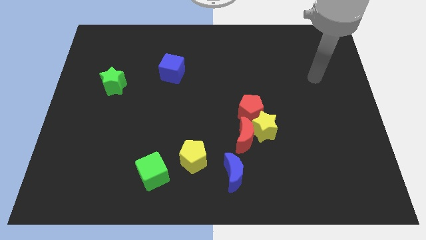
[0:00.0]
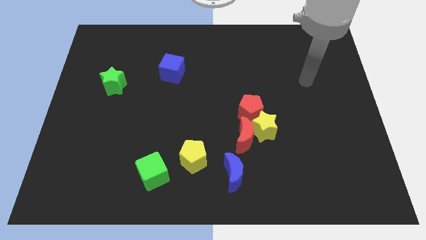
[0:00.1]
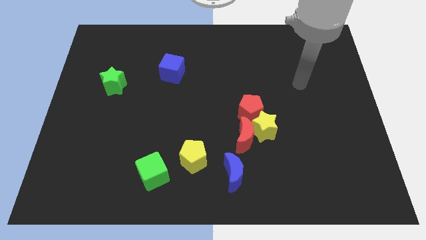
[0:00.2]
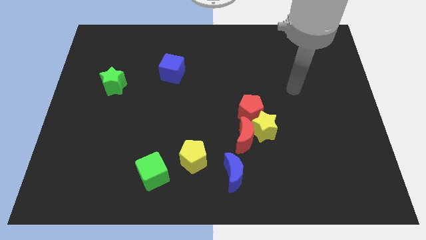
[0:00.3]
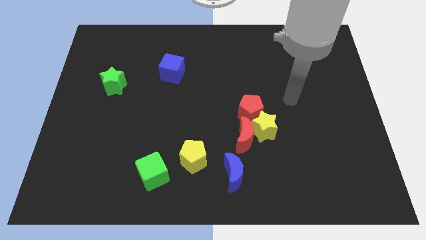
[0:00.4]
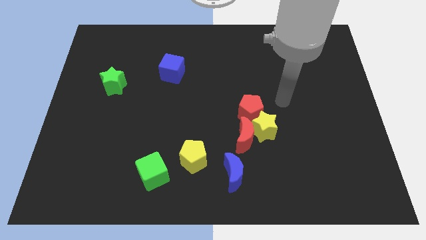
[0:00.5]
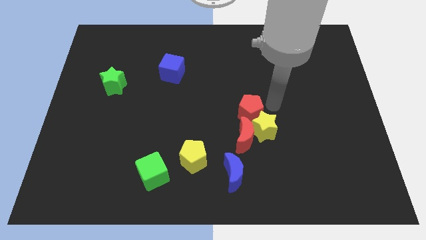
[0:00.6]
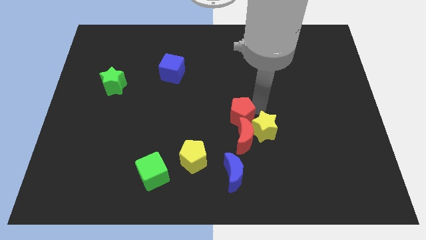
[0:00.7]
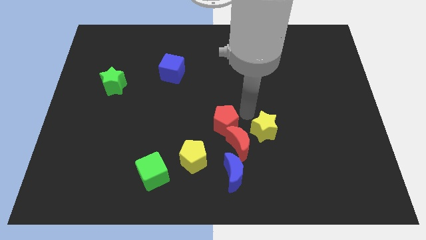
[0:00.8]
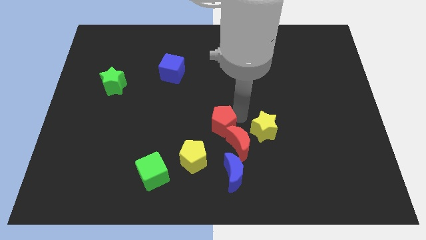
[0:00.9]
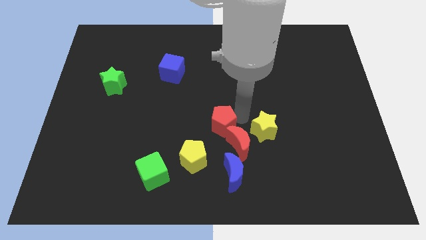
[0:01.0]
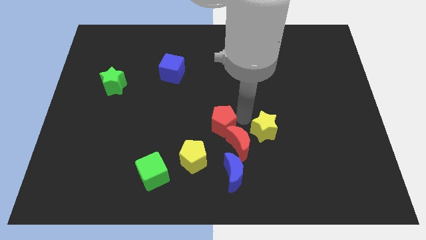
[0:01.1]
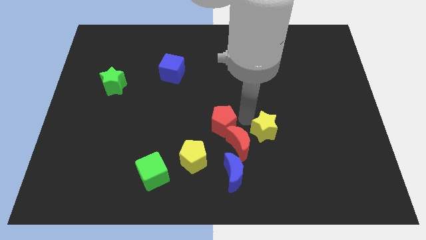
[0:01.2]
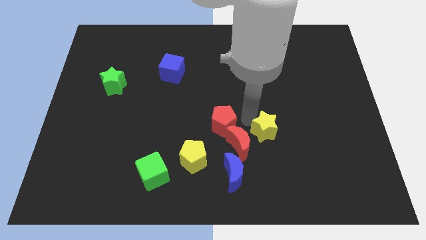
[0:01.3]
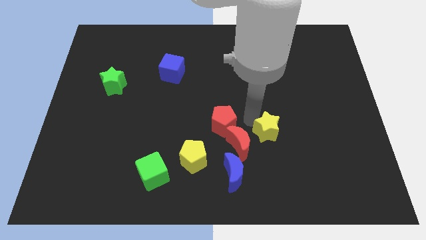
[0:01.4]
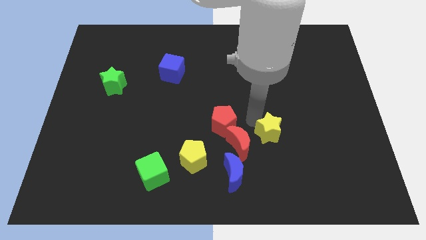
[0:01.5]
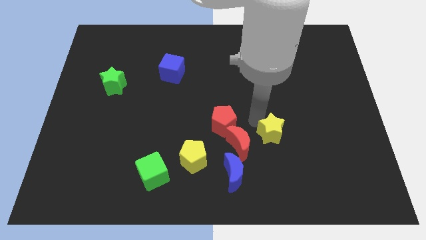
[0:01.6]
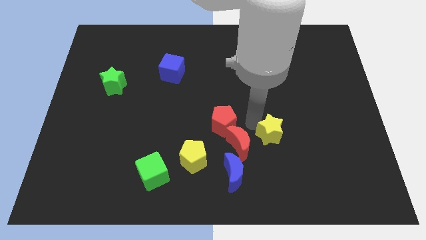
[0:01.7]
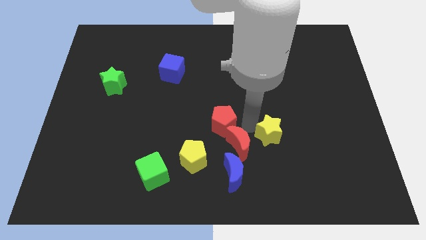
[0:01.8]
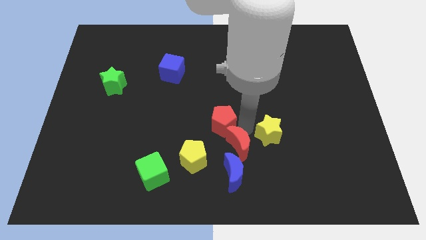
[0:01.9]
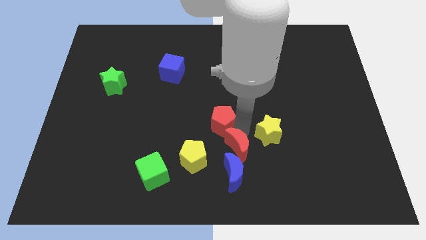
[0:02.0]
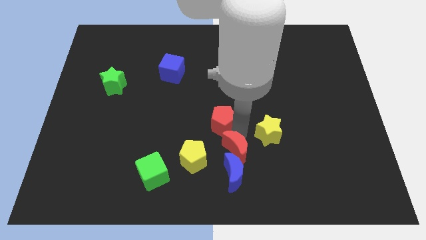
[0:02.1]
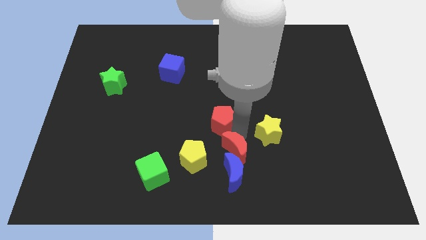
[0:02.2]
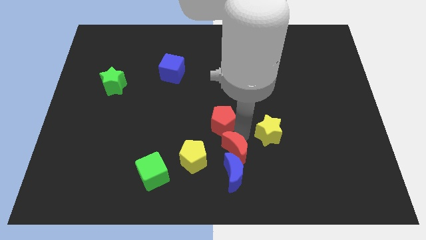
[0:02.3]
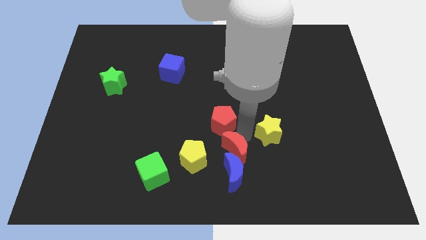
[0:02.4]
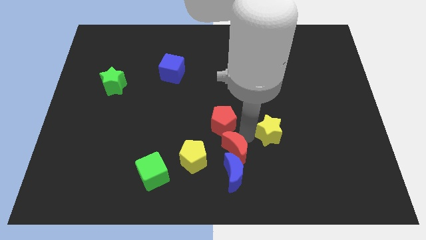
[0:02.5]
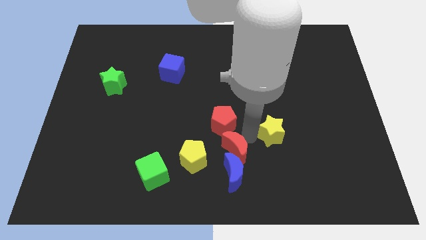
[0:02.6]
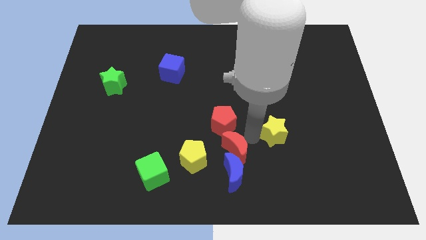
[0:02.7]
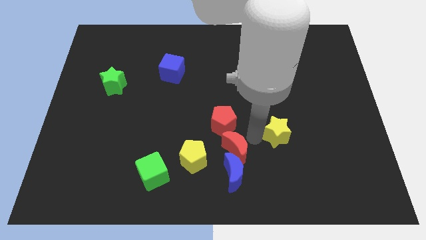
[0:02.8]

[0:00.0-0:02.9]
move the yellow star away from the red moon and red pentagon

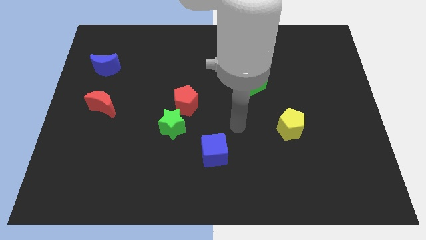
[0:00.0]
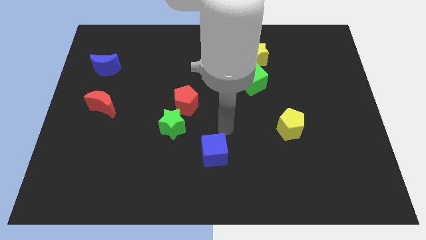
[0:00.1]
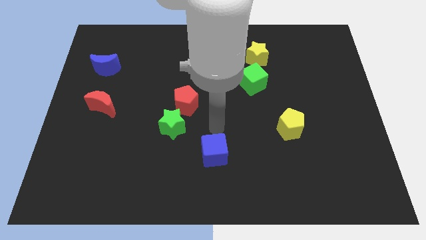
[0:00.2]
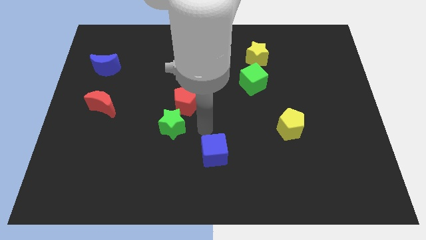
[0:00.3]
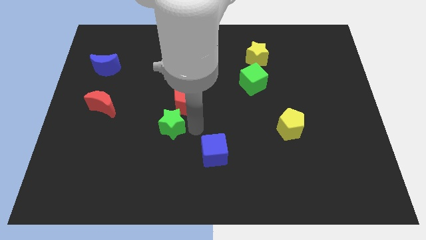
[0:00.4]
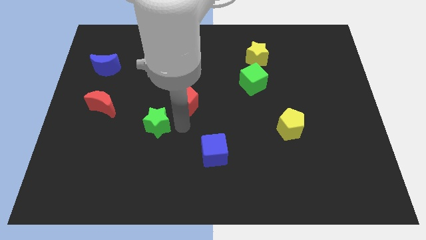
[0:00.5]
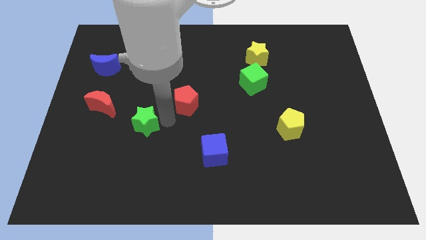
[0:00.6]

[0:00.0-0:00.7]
separate the red pentagon from the green star

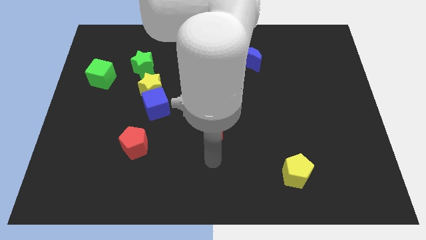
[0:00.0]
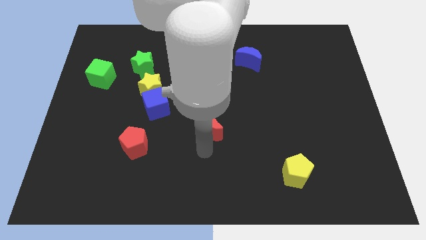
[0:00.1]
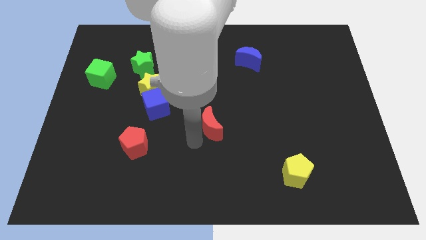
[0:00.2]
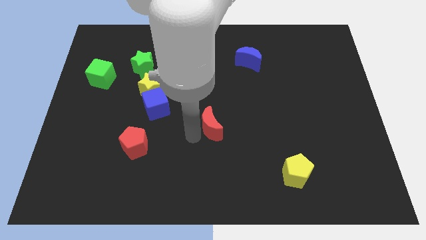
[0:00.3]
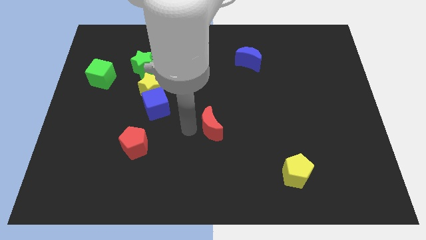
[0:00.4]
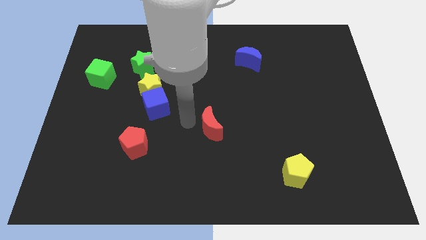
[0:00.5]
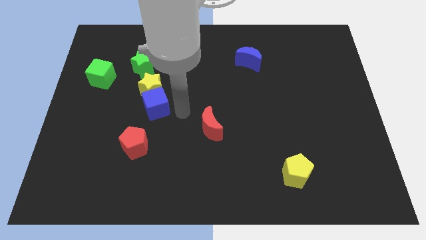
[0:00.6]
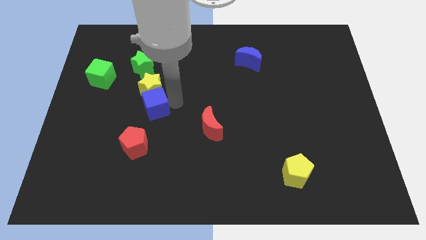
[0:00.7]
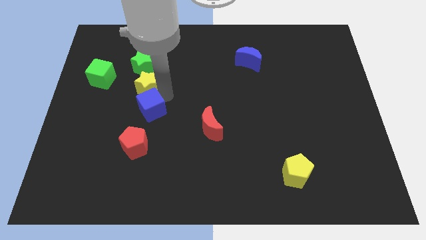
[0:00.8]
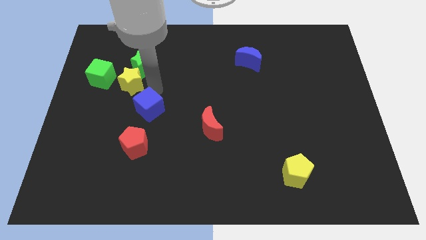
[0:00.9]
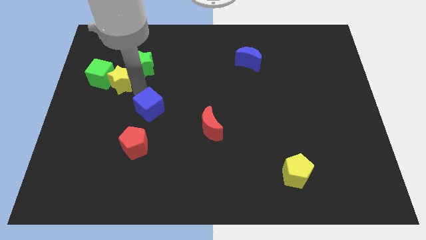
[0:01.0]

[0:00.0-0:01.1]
move the blue cube away from the yellow star

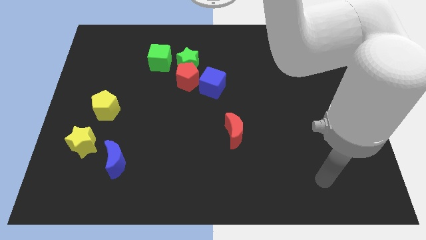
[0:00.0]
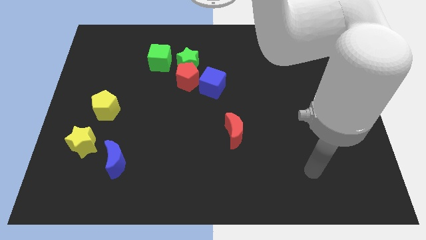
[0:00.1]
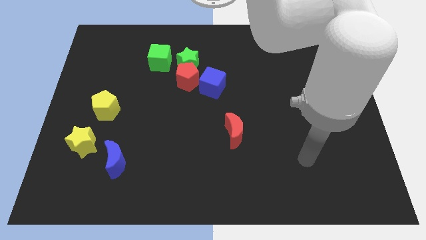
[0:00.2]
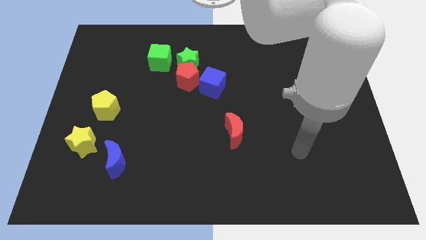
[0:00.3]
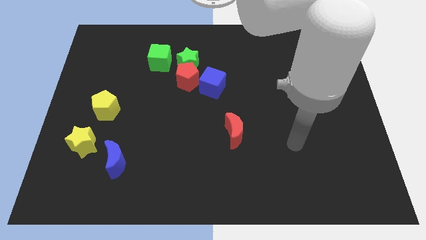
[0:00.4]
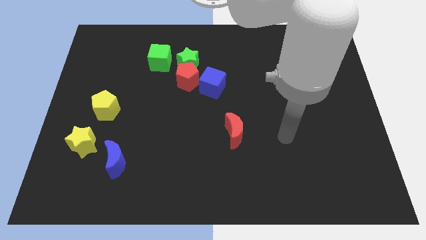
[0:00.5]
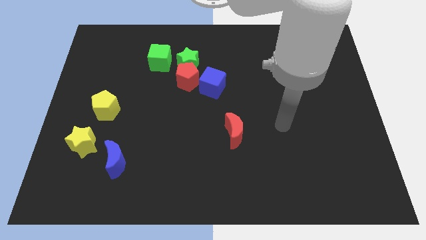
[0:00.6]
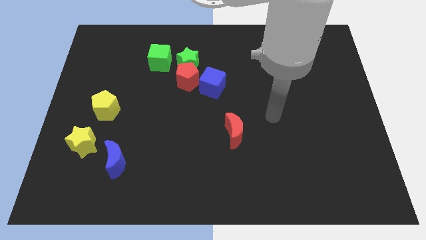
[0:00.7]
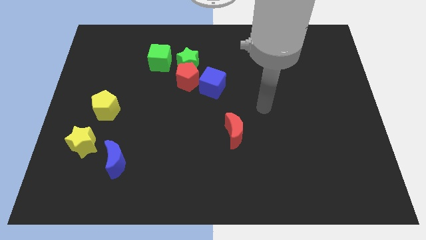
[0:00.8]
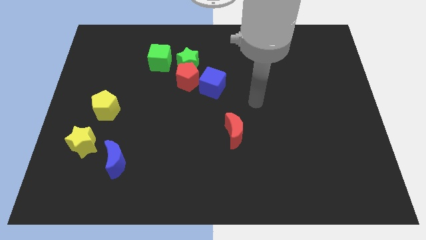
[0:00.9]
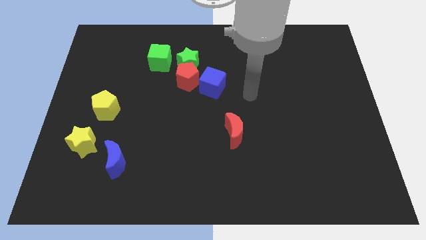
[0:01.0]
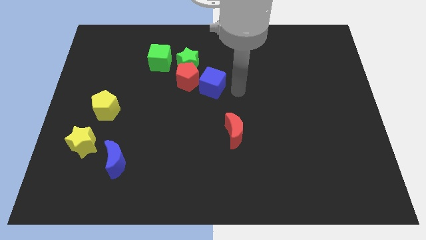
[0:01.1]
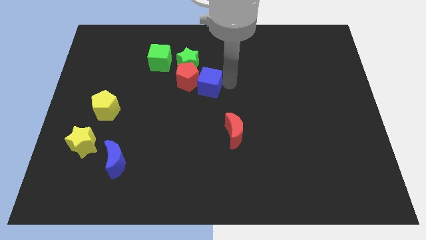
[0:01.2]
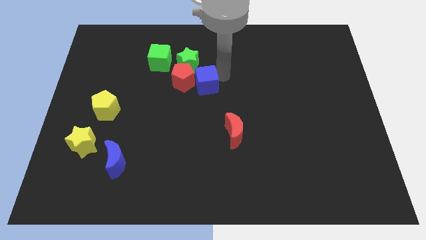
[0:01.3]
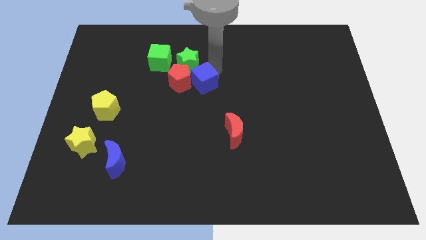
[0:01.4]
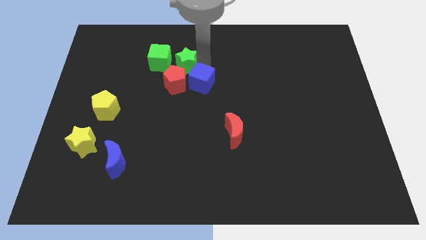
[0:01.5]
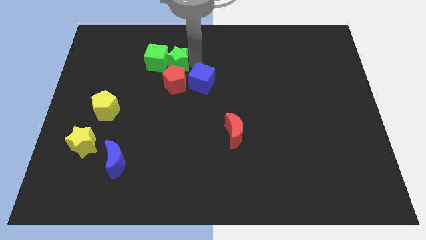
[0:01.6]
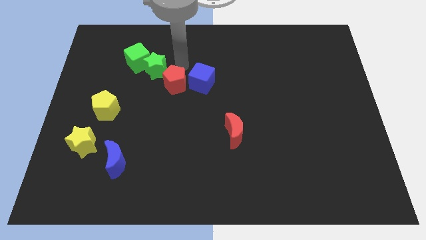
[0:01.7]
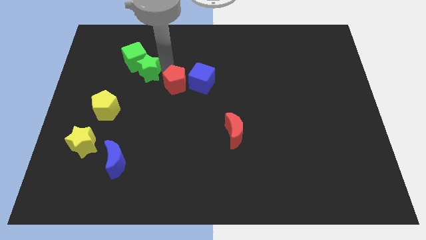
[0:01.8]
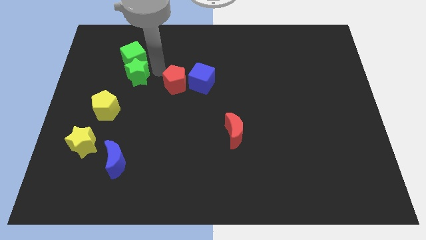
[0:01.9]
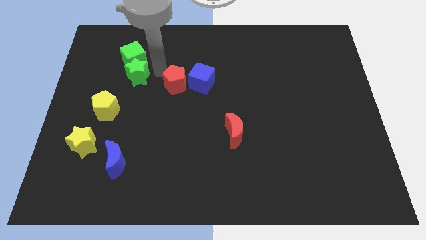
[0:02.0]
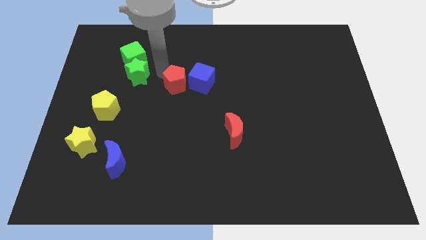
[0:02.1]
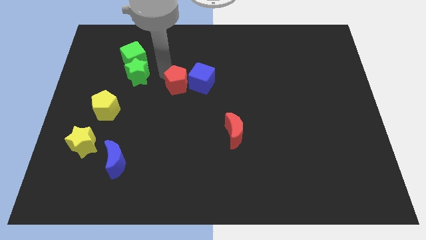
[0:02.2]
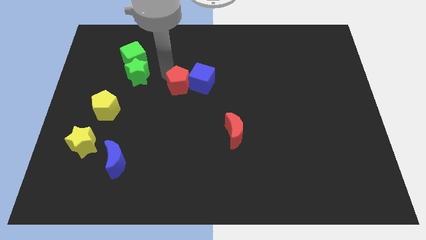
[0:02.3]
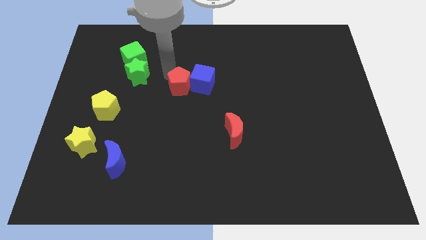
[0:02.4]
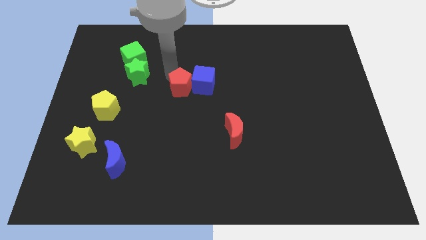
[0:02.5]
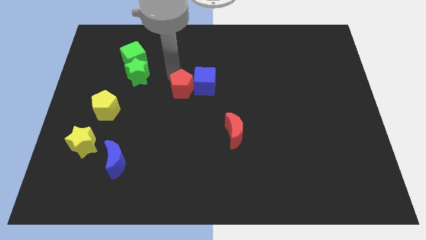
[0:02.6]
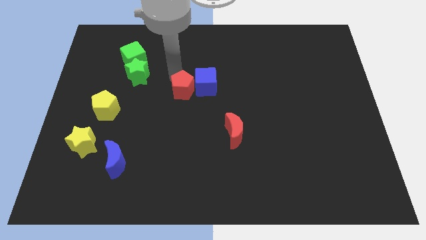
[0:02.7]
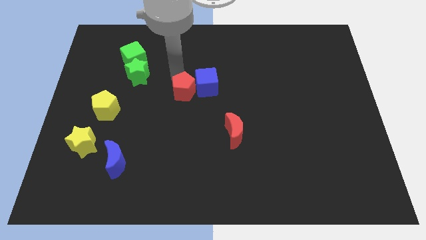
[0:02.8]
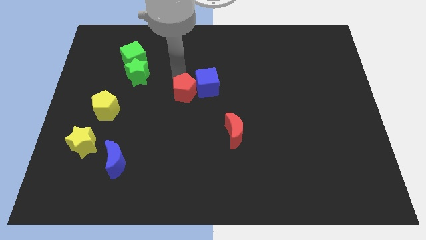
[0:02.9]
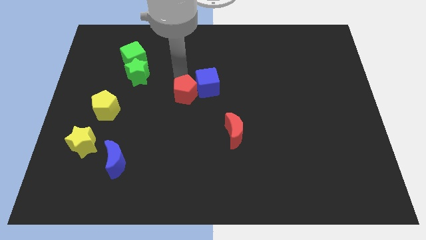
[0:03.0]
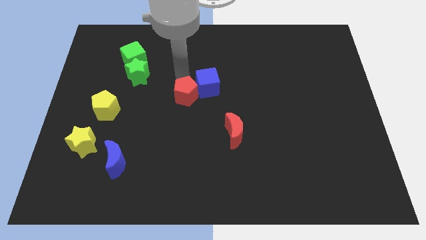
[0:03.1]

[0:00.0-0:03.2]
separate the red pentagon from the green star, blue cube, and green cube

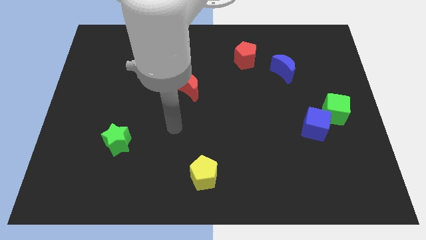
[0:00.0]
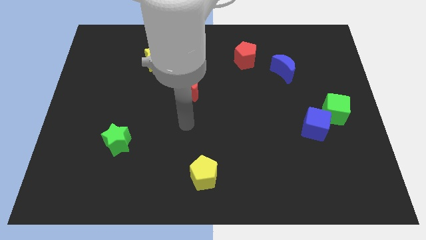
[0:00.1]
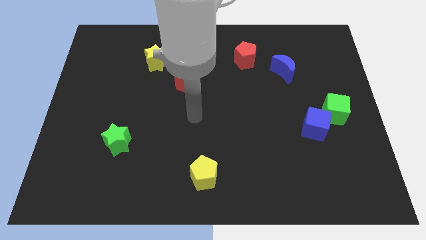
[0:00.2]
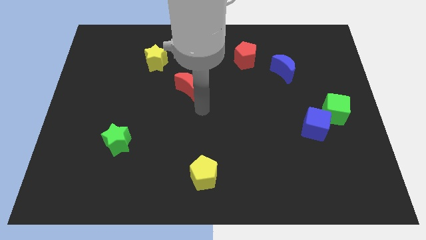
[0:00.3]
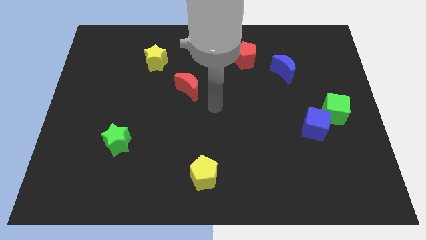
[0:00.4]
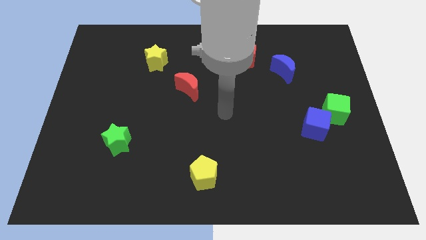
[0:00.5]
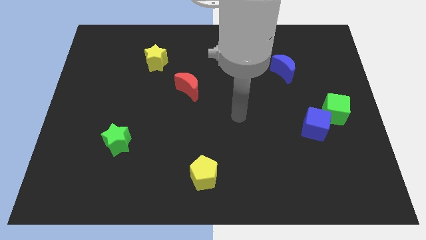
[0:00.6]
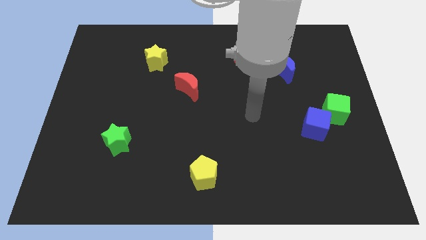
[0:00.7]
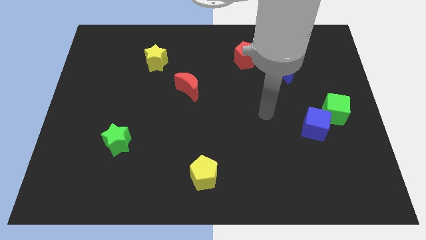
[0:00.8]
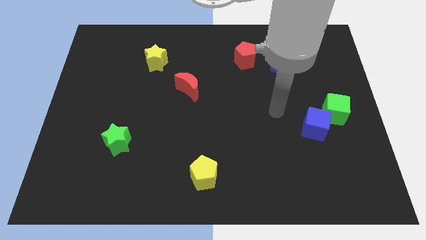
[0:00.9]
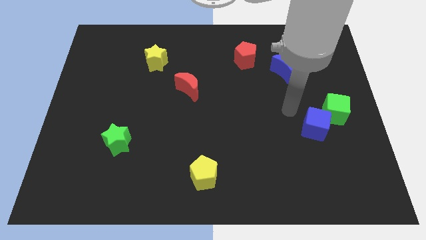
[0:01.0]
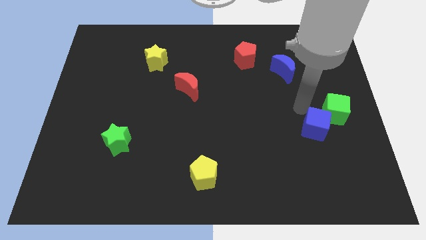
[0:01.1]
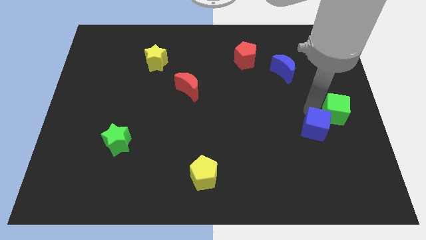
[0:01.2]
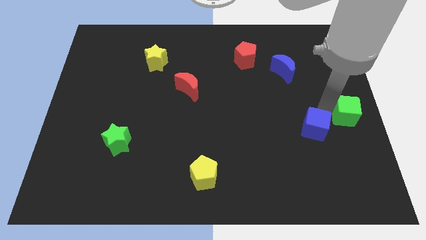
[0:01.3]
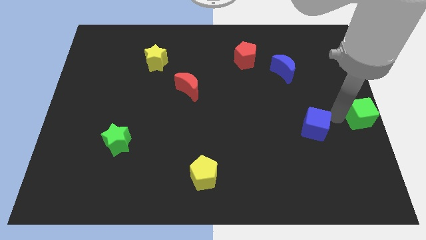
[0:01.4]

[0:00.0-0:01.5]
move the blue cube away from the green cube
